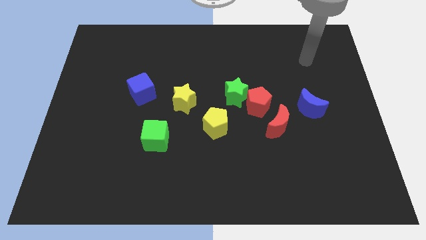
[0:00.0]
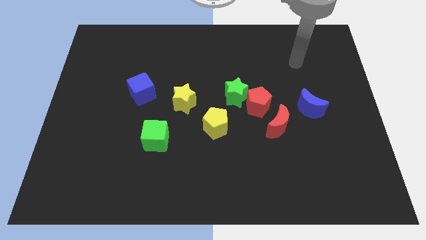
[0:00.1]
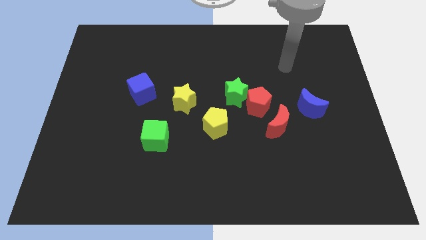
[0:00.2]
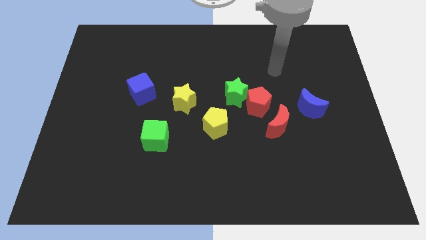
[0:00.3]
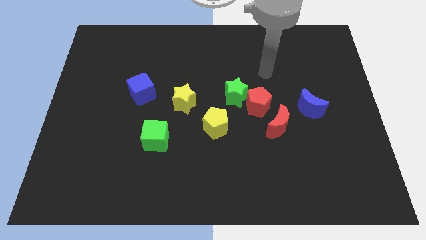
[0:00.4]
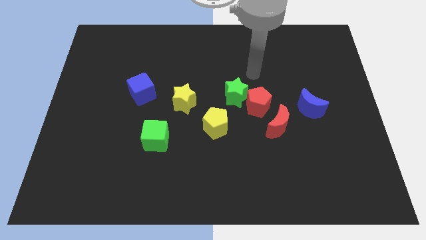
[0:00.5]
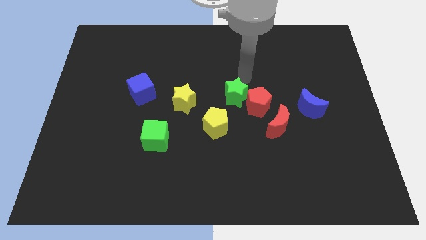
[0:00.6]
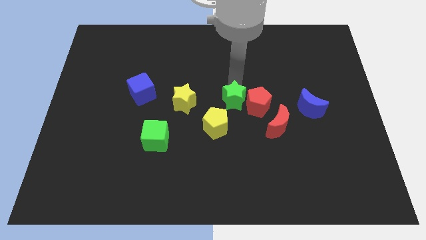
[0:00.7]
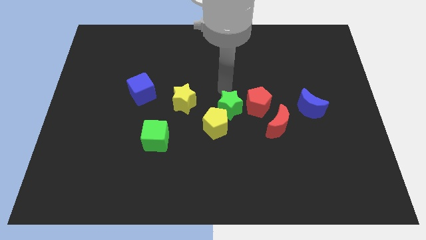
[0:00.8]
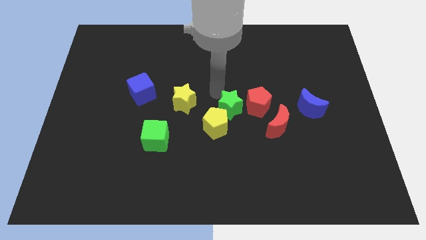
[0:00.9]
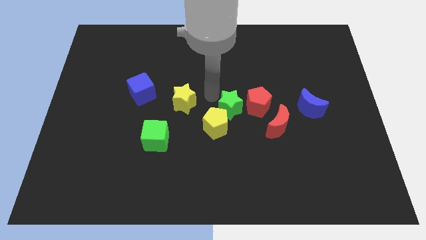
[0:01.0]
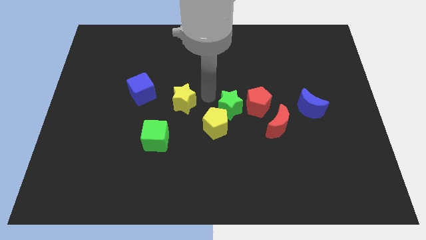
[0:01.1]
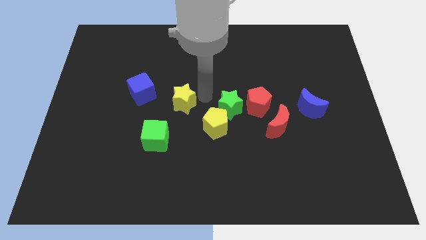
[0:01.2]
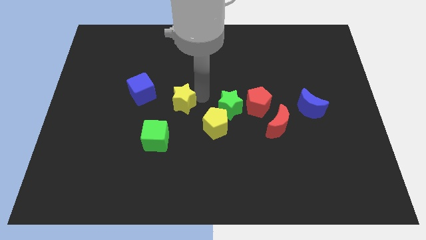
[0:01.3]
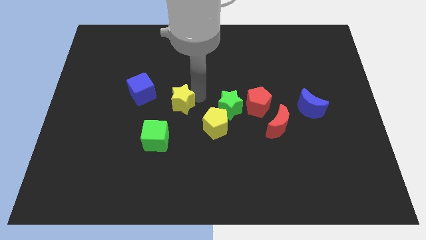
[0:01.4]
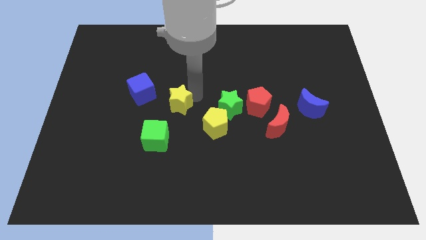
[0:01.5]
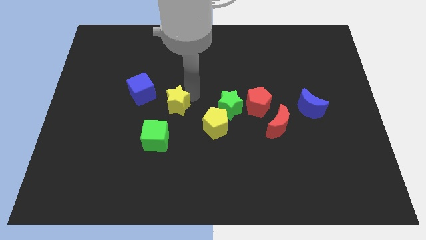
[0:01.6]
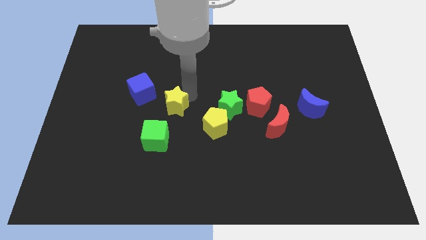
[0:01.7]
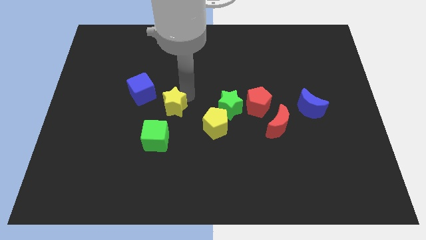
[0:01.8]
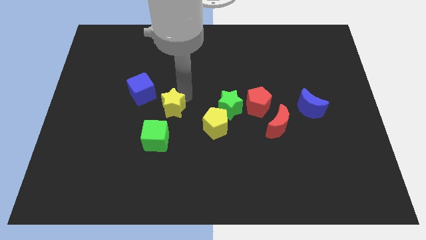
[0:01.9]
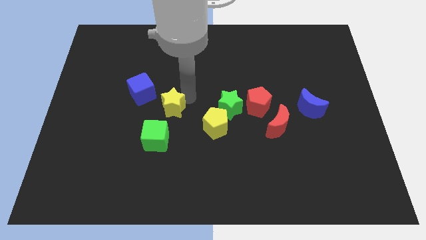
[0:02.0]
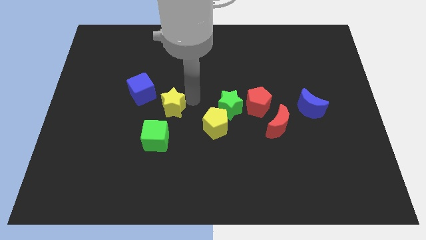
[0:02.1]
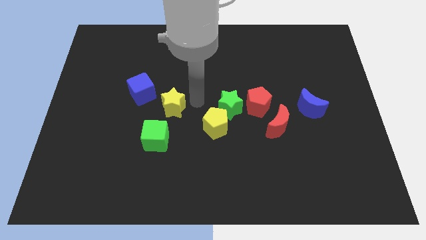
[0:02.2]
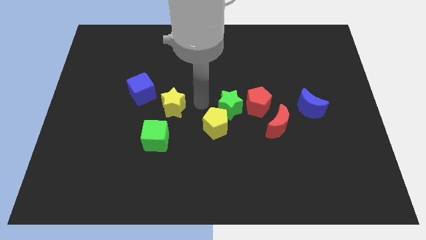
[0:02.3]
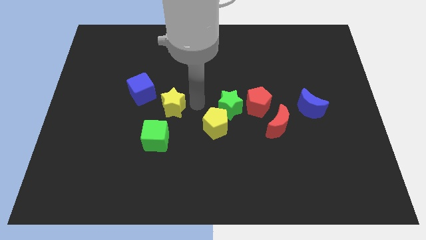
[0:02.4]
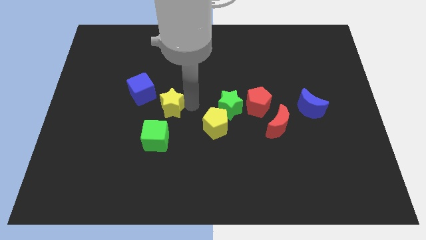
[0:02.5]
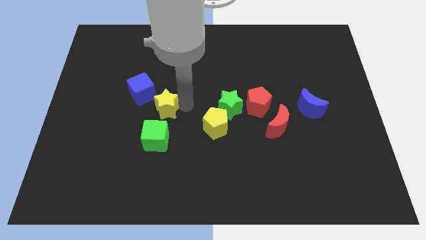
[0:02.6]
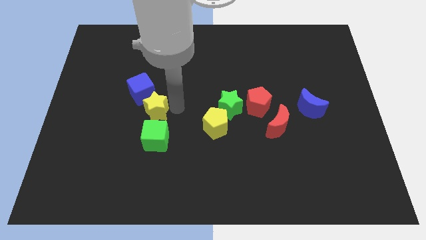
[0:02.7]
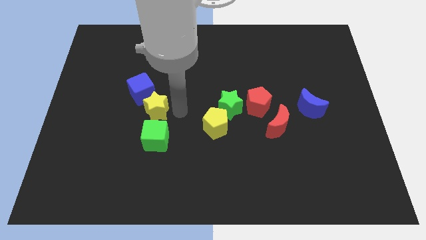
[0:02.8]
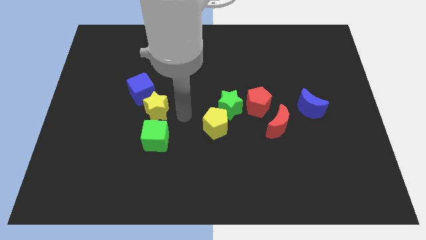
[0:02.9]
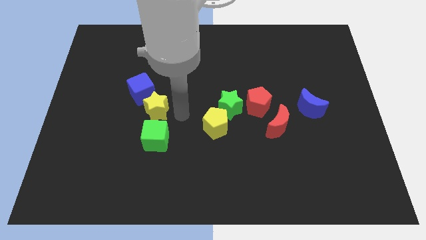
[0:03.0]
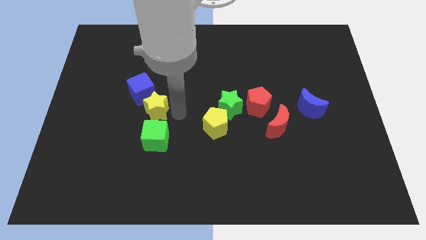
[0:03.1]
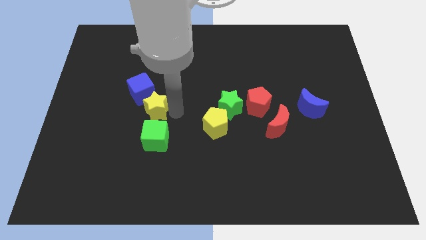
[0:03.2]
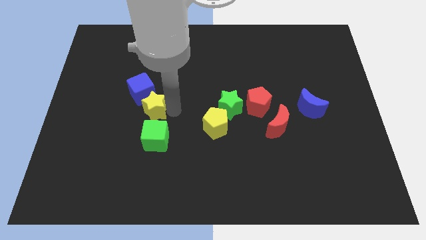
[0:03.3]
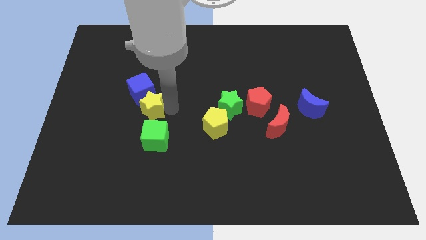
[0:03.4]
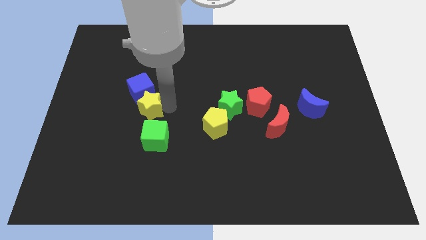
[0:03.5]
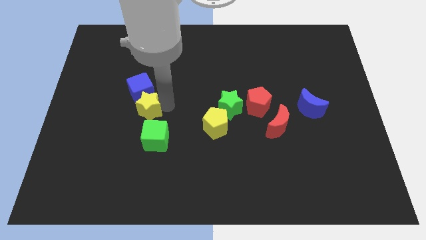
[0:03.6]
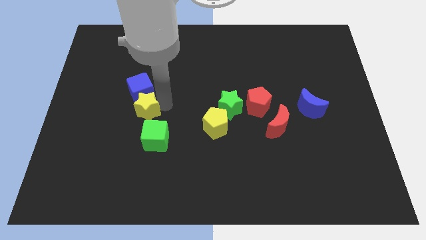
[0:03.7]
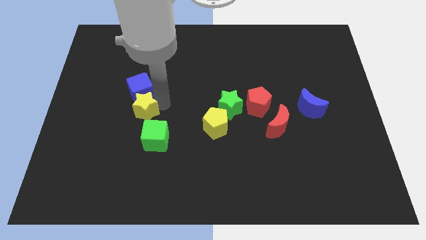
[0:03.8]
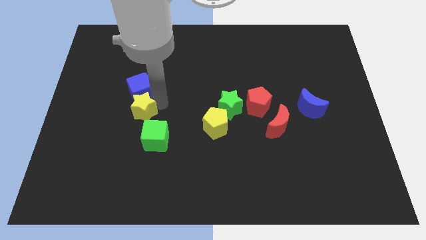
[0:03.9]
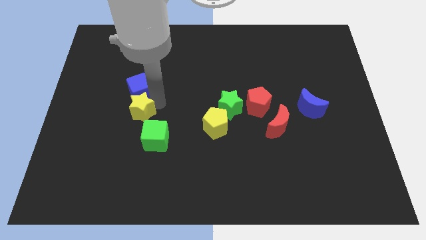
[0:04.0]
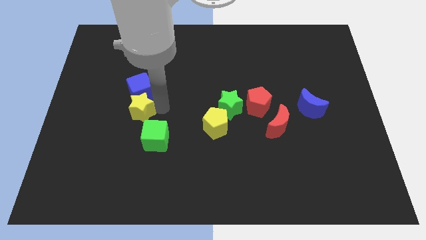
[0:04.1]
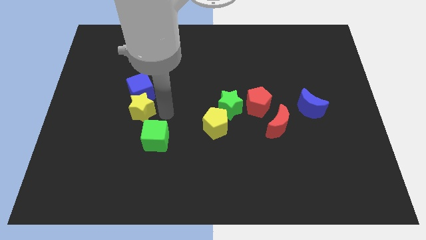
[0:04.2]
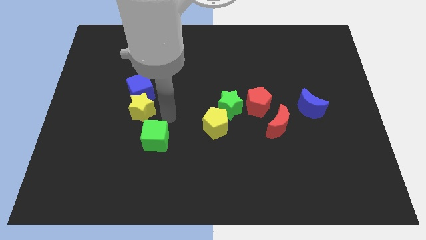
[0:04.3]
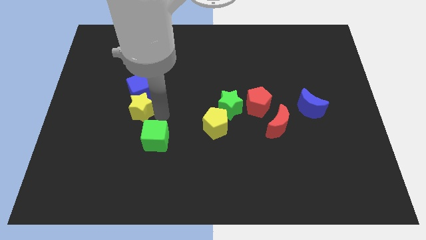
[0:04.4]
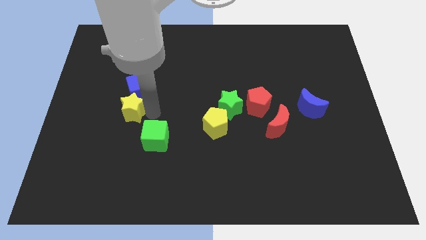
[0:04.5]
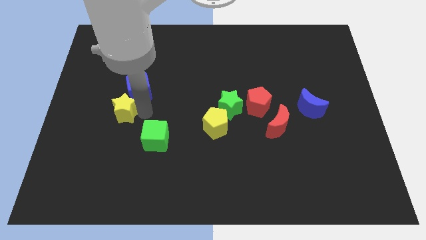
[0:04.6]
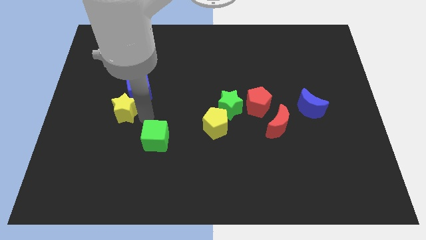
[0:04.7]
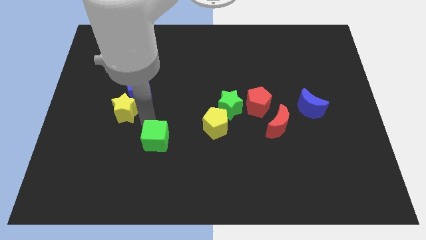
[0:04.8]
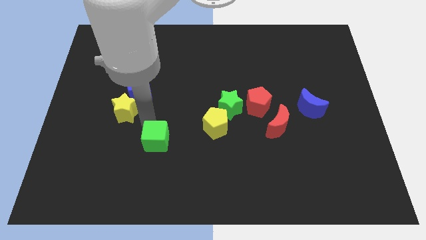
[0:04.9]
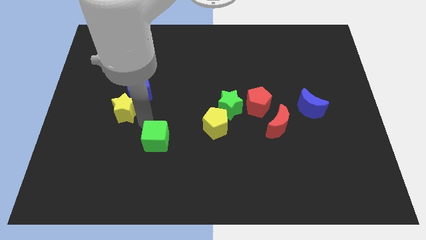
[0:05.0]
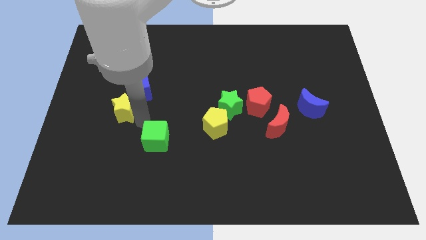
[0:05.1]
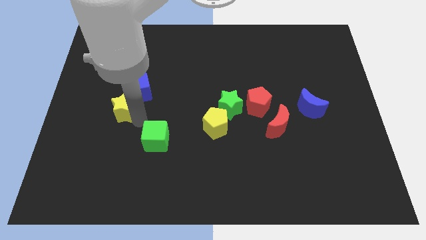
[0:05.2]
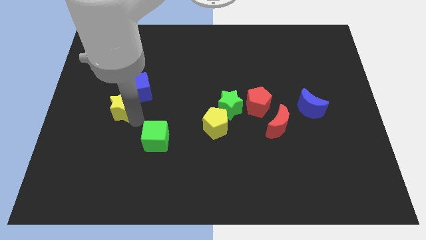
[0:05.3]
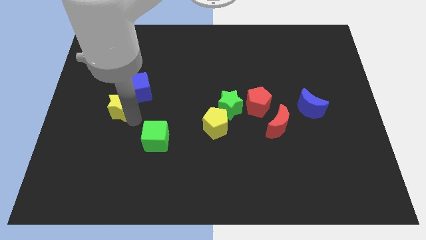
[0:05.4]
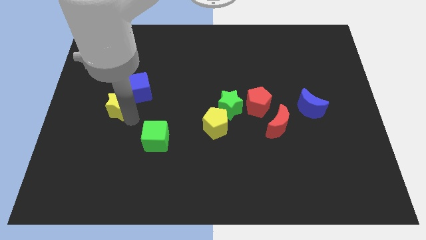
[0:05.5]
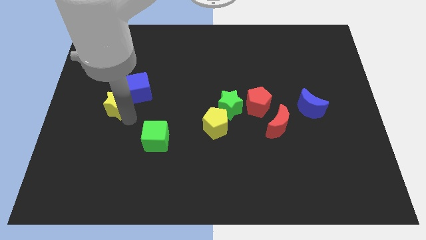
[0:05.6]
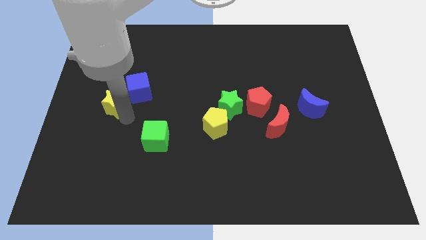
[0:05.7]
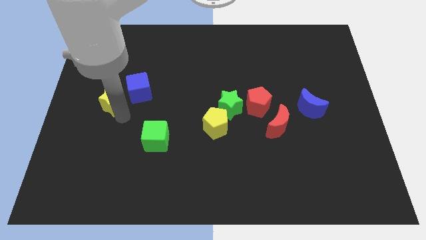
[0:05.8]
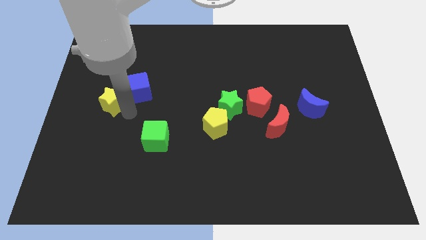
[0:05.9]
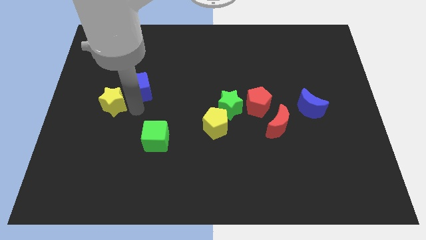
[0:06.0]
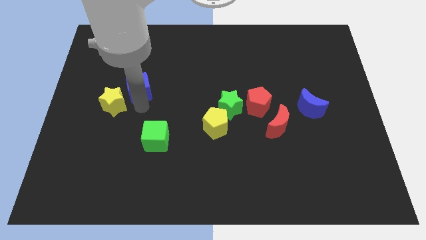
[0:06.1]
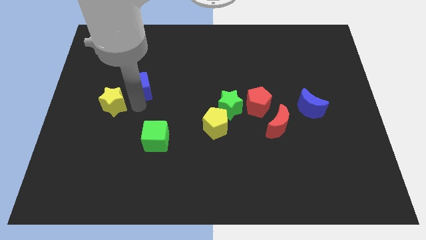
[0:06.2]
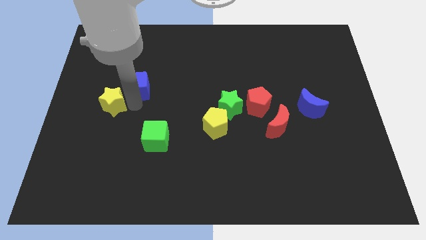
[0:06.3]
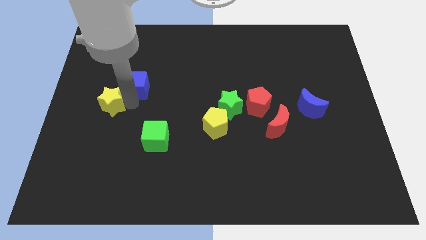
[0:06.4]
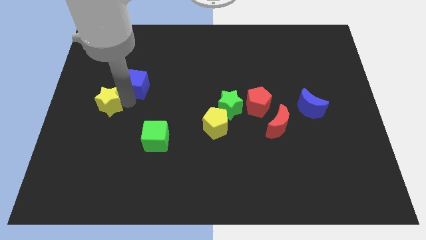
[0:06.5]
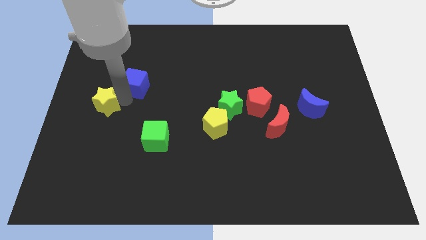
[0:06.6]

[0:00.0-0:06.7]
put the yellow star to the left side
